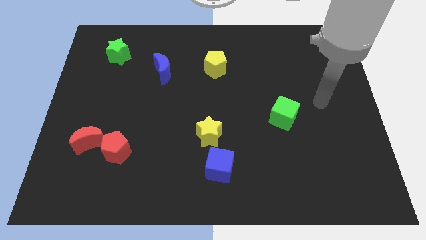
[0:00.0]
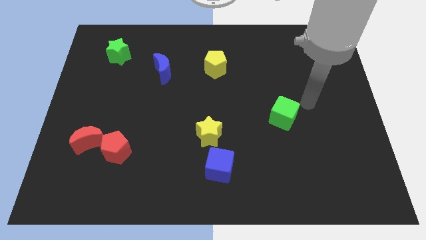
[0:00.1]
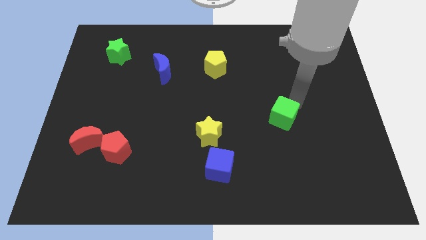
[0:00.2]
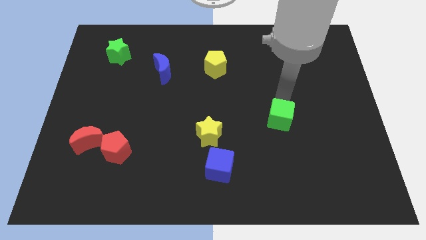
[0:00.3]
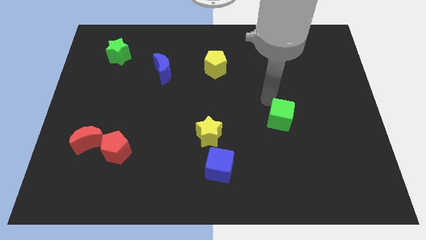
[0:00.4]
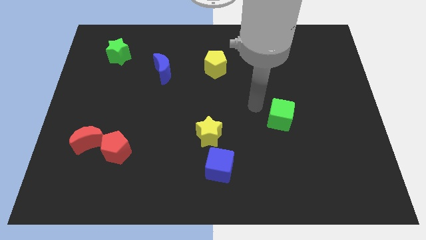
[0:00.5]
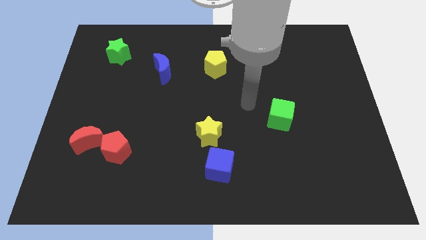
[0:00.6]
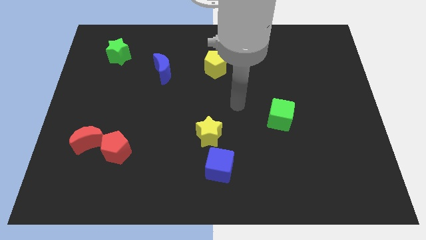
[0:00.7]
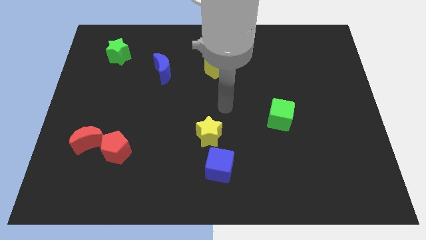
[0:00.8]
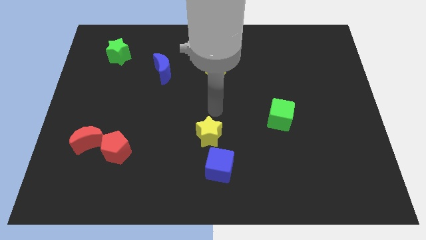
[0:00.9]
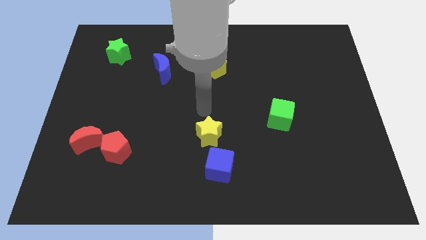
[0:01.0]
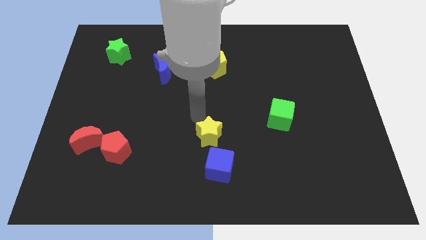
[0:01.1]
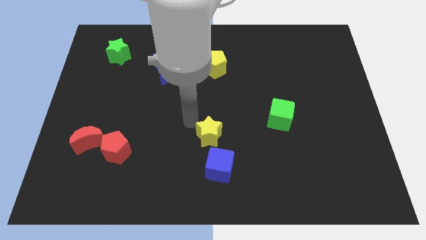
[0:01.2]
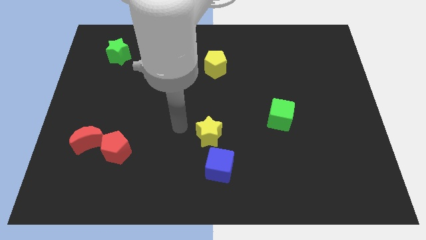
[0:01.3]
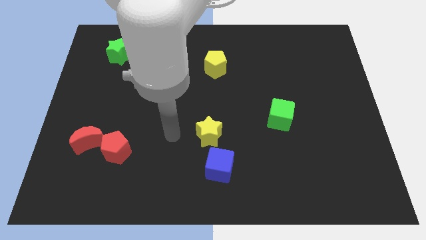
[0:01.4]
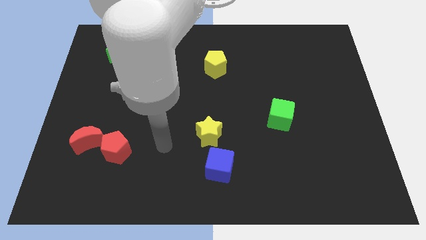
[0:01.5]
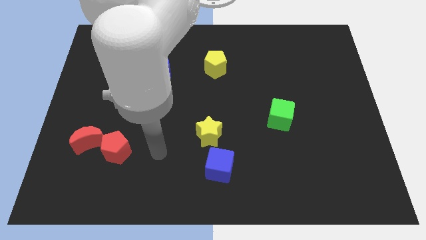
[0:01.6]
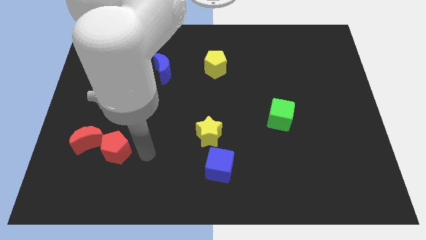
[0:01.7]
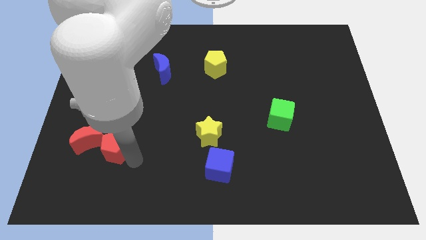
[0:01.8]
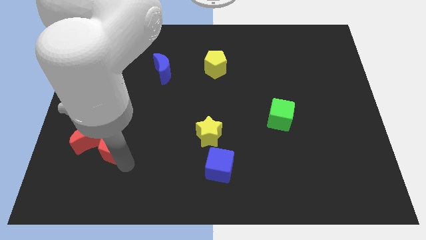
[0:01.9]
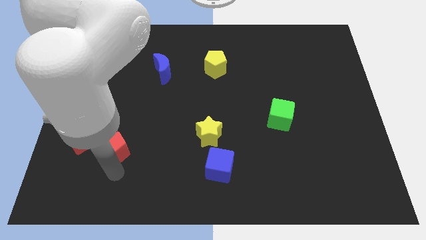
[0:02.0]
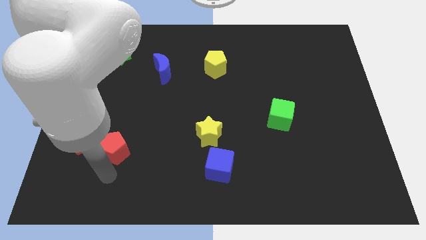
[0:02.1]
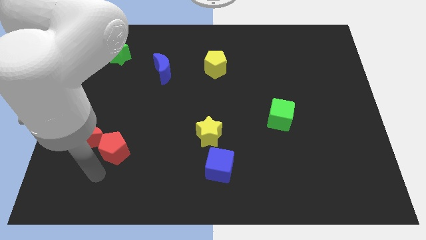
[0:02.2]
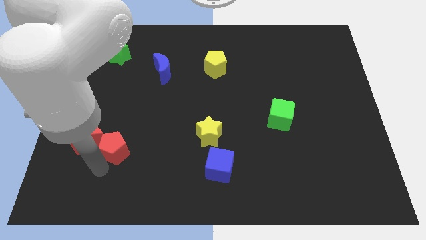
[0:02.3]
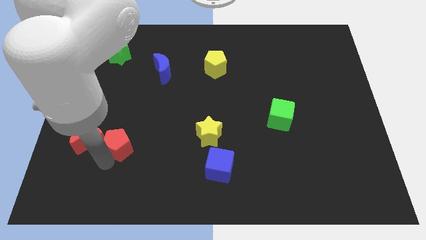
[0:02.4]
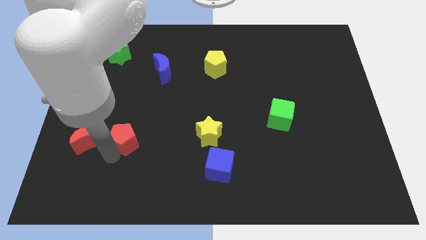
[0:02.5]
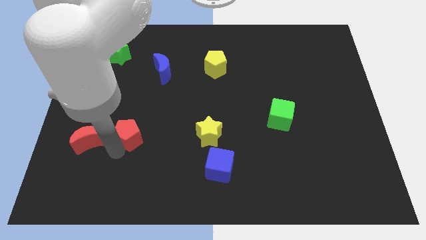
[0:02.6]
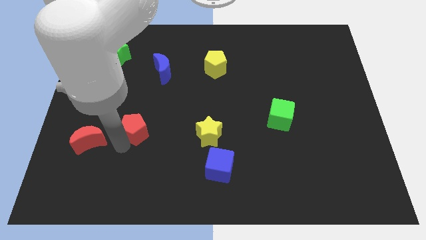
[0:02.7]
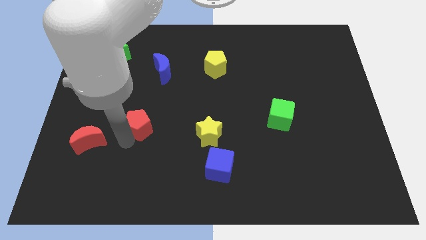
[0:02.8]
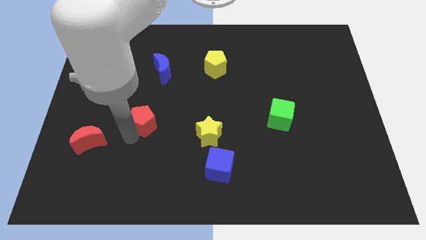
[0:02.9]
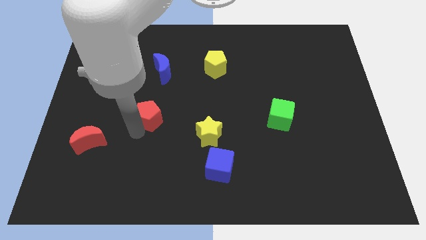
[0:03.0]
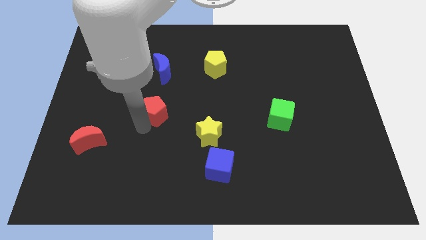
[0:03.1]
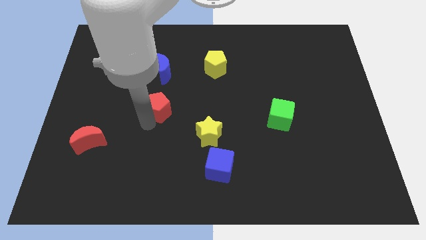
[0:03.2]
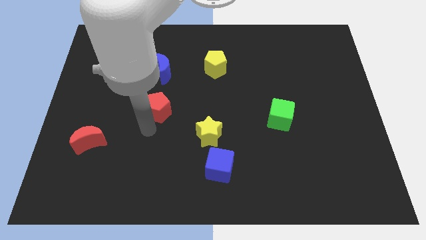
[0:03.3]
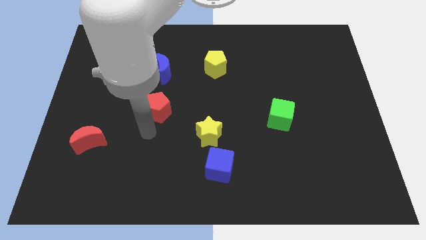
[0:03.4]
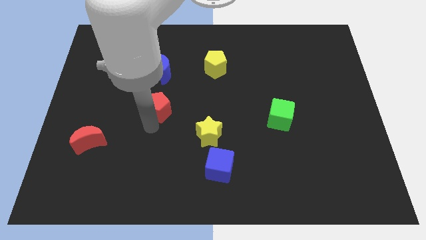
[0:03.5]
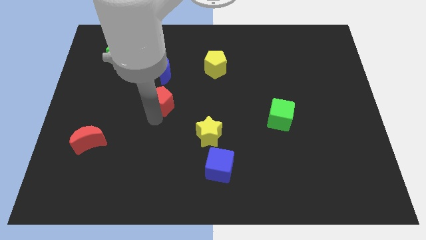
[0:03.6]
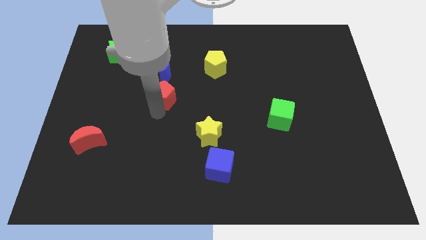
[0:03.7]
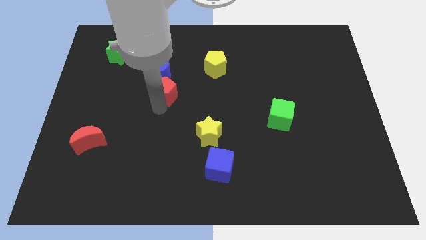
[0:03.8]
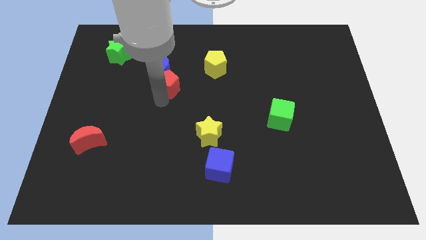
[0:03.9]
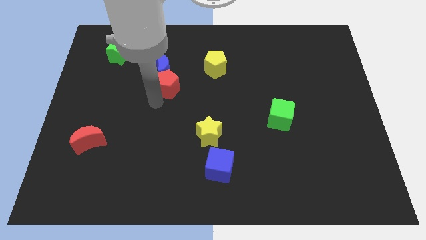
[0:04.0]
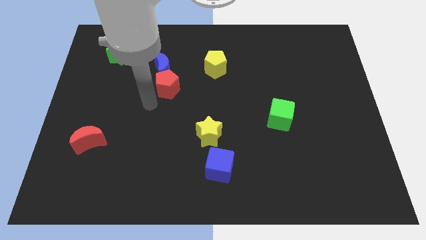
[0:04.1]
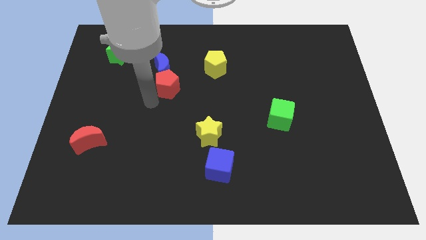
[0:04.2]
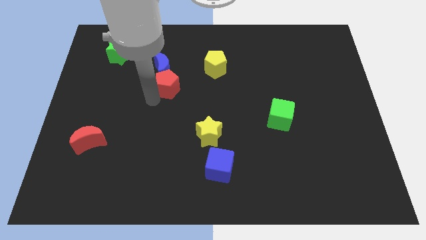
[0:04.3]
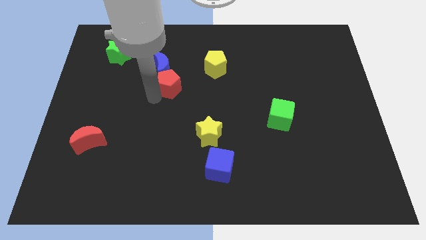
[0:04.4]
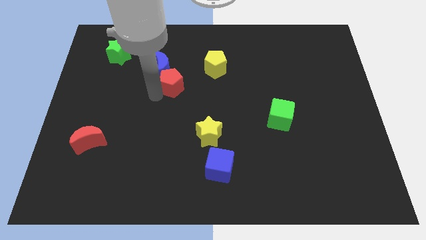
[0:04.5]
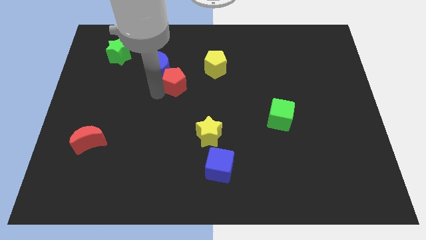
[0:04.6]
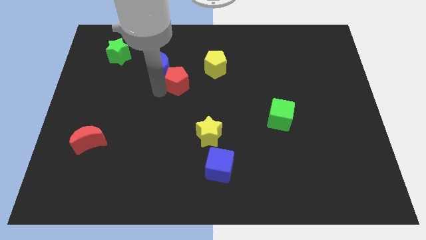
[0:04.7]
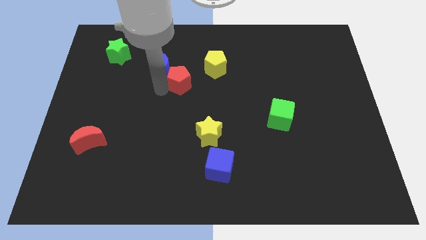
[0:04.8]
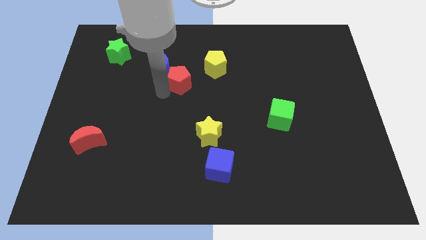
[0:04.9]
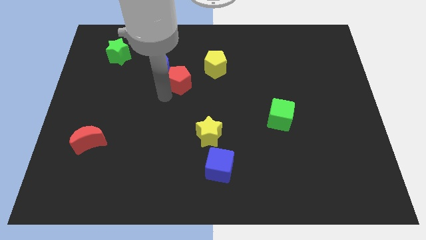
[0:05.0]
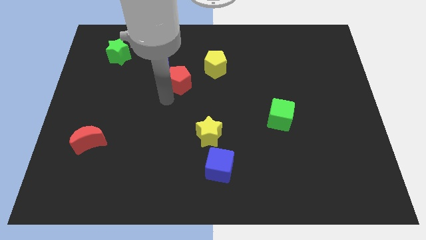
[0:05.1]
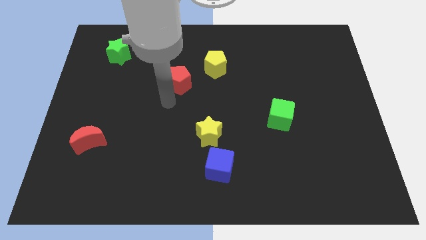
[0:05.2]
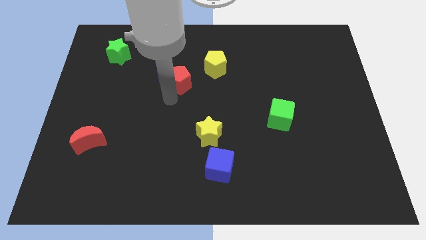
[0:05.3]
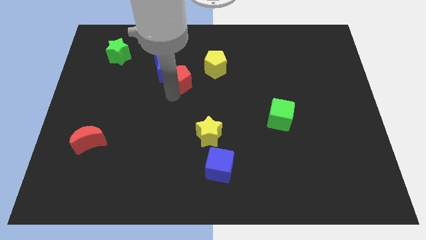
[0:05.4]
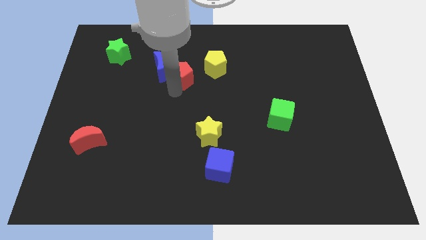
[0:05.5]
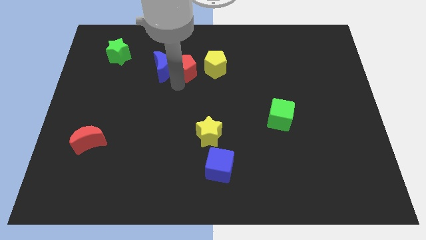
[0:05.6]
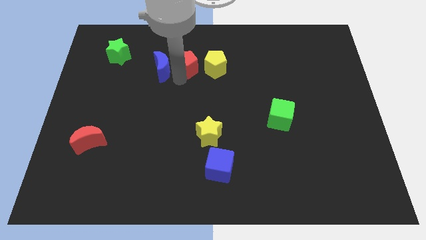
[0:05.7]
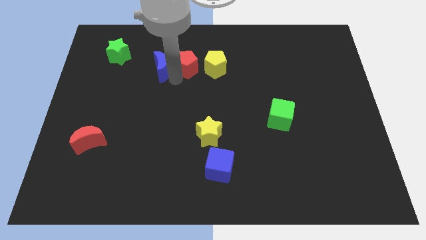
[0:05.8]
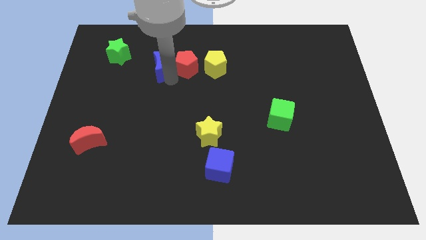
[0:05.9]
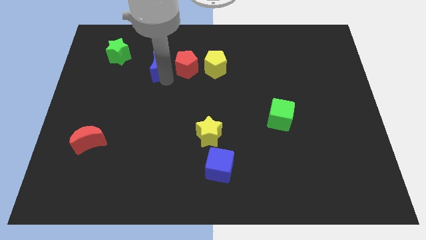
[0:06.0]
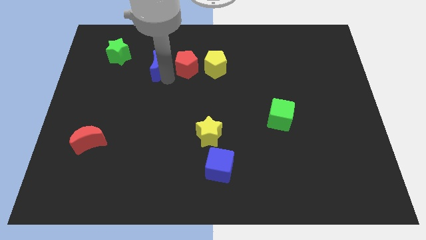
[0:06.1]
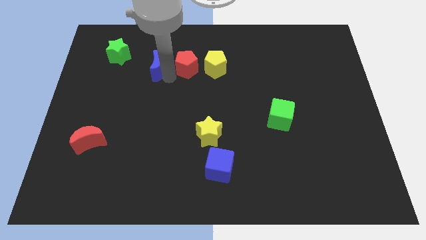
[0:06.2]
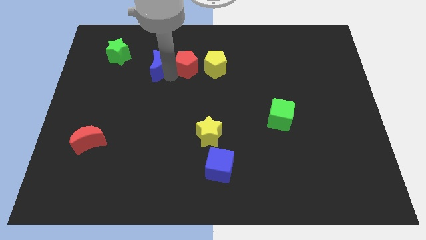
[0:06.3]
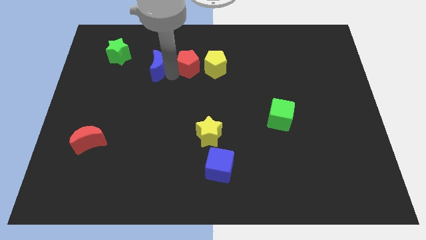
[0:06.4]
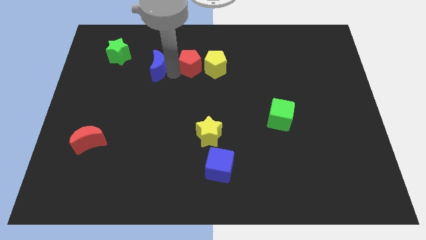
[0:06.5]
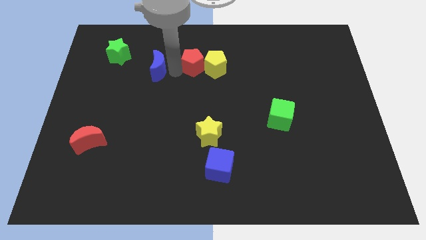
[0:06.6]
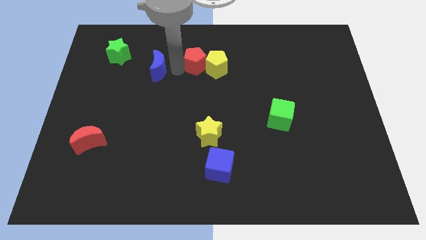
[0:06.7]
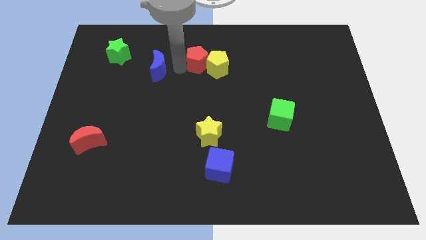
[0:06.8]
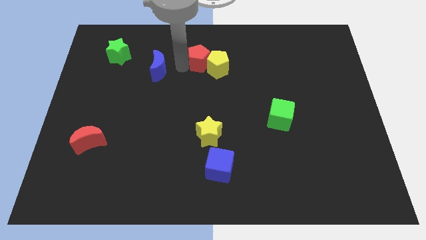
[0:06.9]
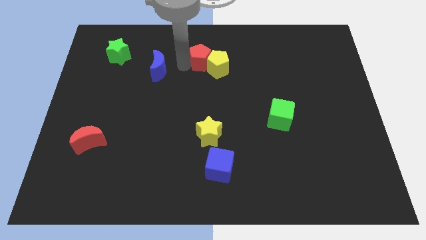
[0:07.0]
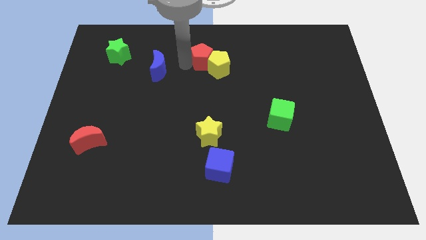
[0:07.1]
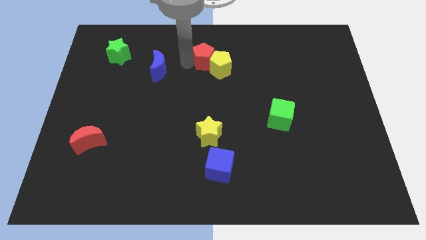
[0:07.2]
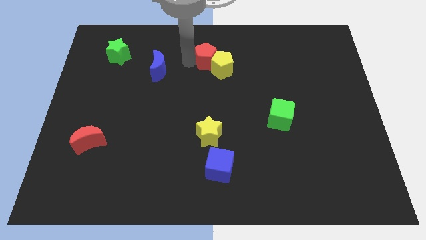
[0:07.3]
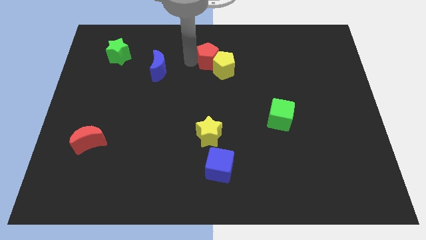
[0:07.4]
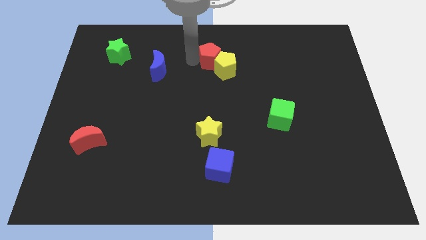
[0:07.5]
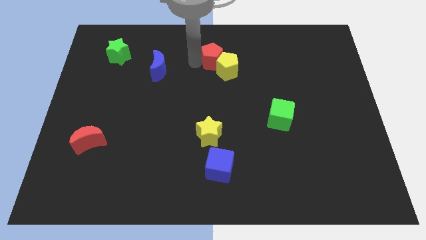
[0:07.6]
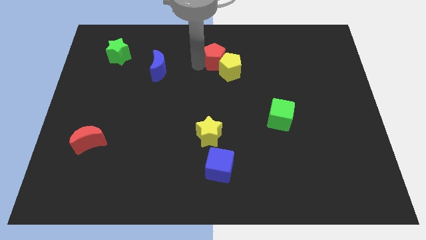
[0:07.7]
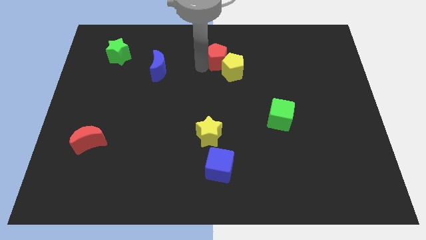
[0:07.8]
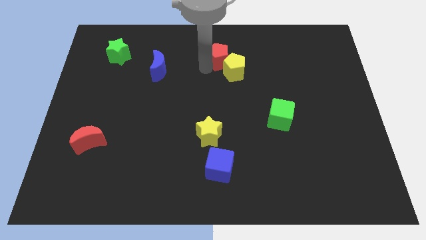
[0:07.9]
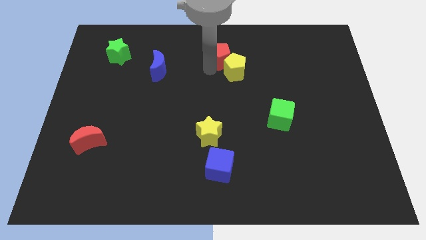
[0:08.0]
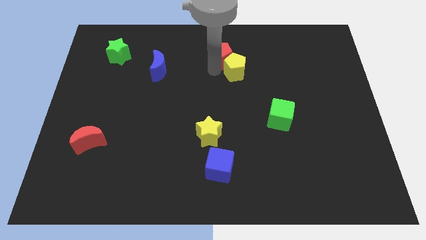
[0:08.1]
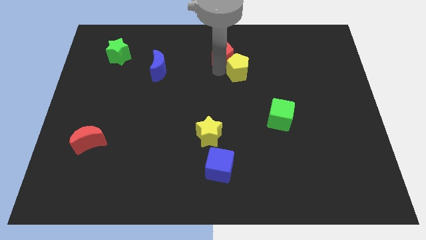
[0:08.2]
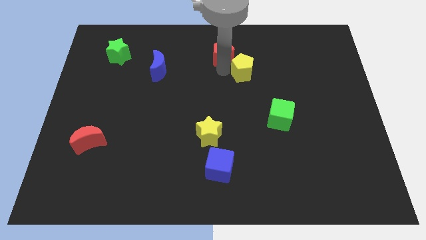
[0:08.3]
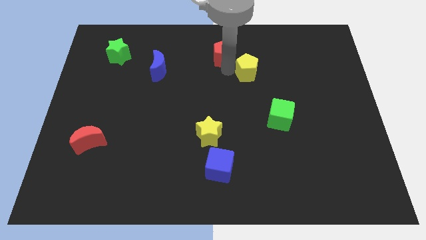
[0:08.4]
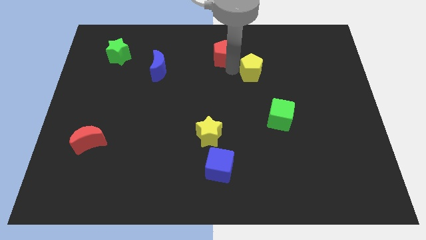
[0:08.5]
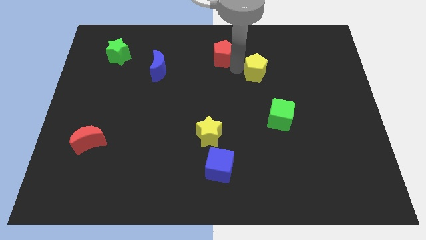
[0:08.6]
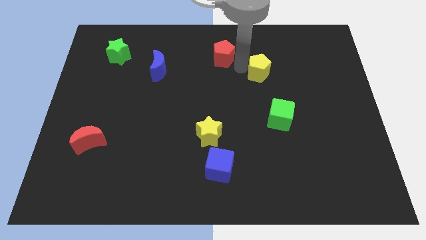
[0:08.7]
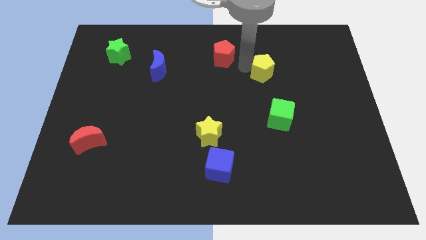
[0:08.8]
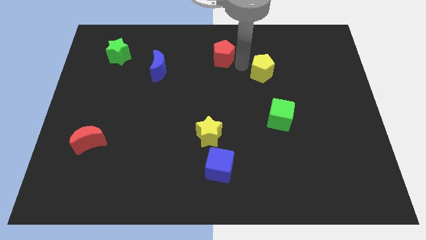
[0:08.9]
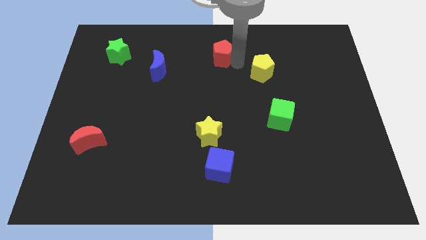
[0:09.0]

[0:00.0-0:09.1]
move the red pentagon to the towards your base
